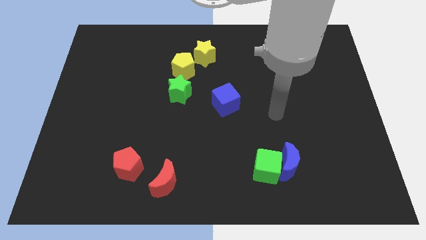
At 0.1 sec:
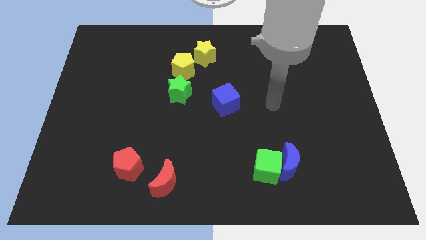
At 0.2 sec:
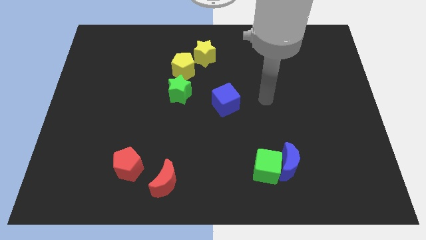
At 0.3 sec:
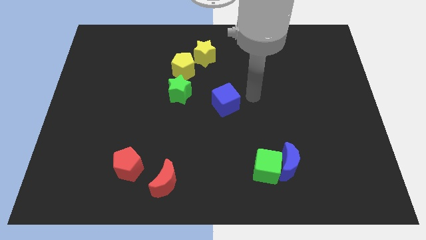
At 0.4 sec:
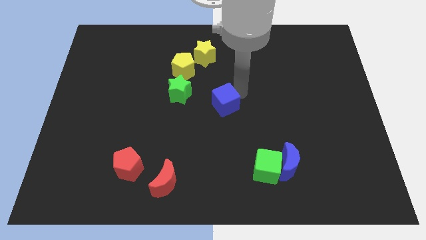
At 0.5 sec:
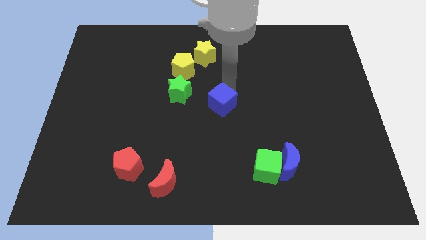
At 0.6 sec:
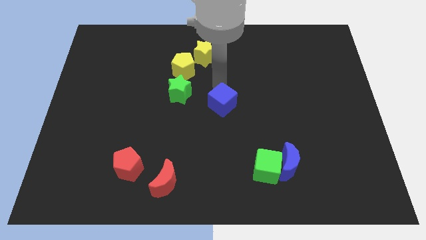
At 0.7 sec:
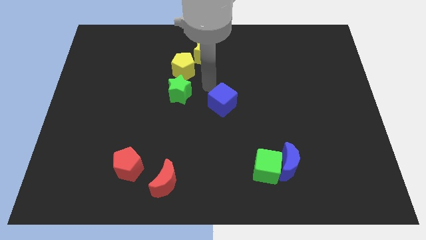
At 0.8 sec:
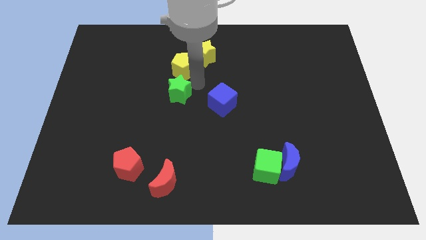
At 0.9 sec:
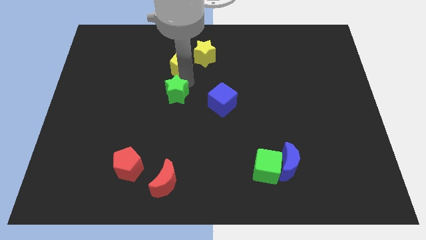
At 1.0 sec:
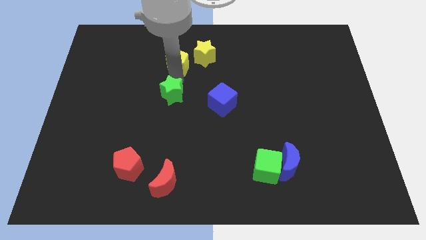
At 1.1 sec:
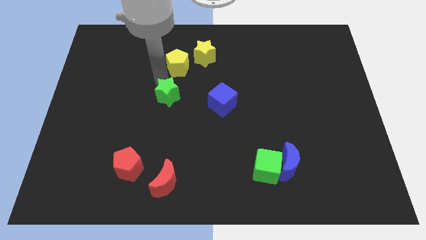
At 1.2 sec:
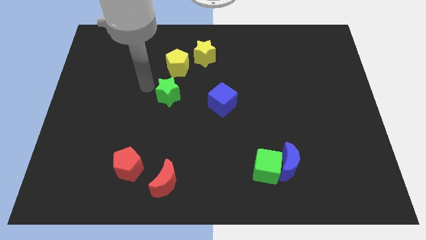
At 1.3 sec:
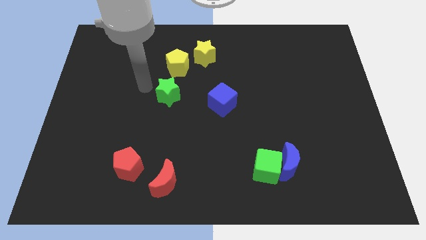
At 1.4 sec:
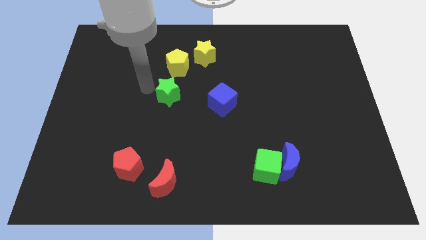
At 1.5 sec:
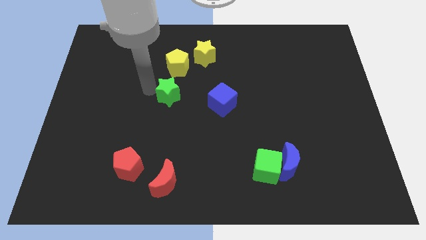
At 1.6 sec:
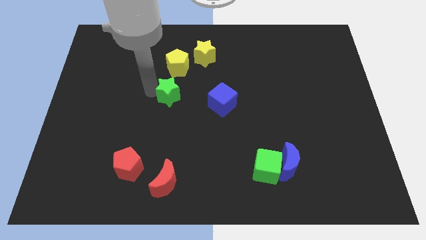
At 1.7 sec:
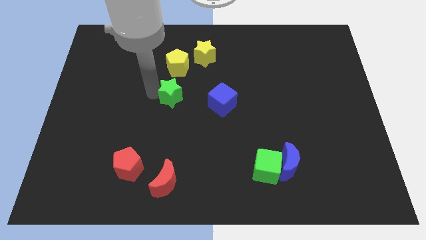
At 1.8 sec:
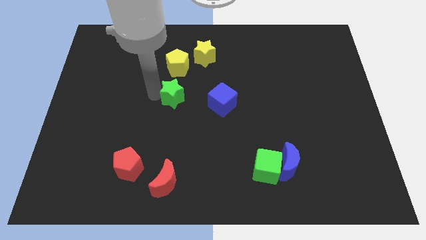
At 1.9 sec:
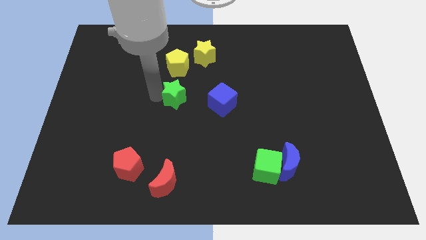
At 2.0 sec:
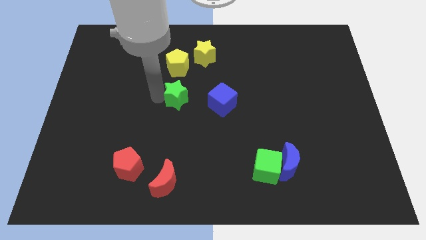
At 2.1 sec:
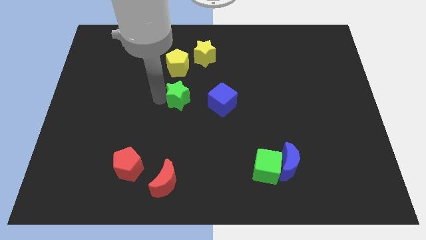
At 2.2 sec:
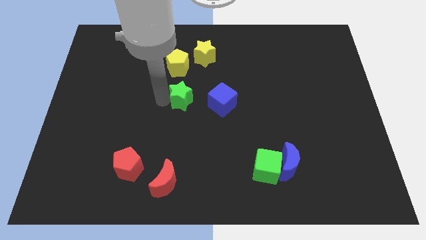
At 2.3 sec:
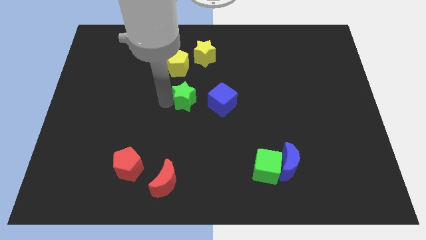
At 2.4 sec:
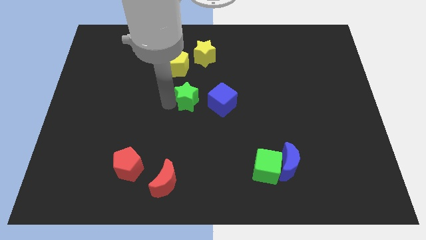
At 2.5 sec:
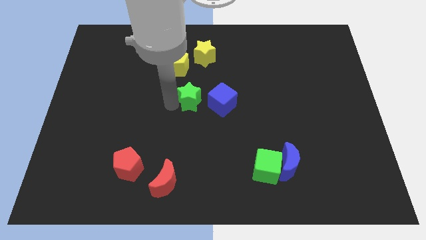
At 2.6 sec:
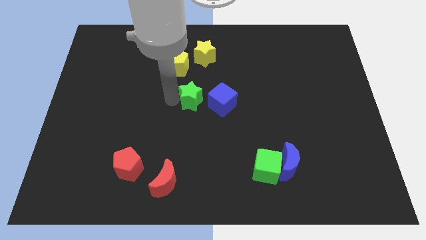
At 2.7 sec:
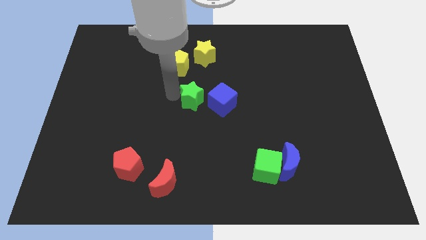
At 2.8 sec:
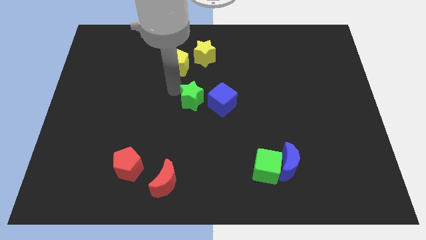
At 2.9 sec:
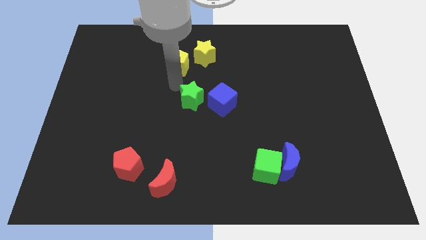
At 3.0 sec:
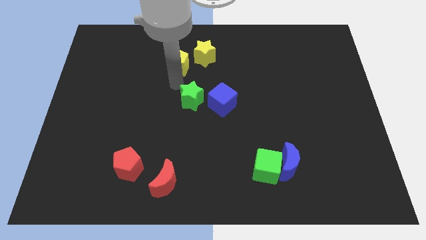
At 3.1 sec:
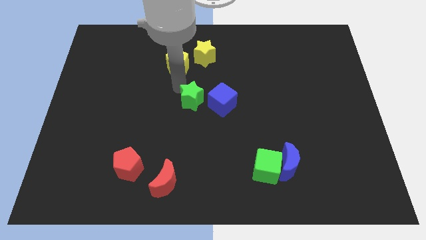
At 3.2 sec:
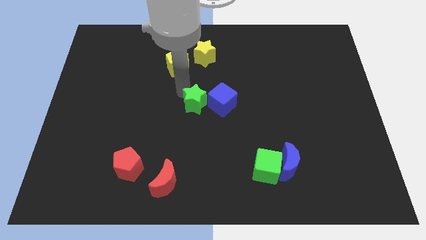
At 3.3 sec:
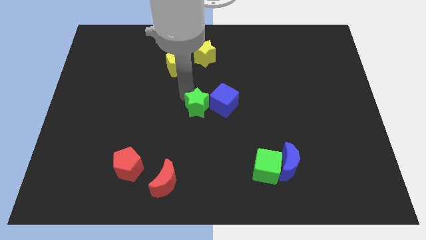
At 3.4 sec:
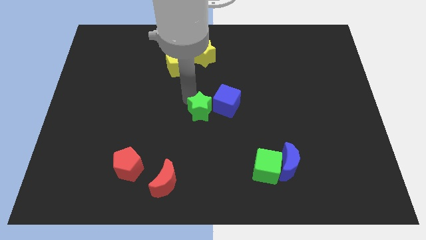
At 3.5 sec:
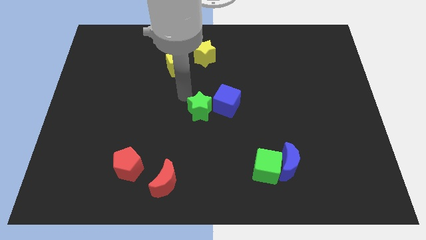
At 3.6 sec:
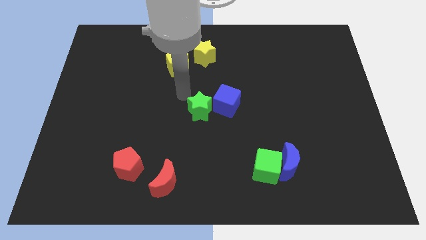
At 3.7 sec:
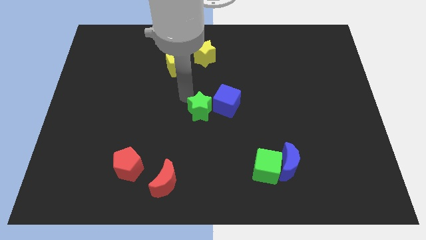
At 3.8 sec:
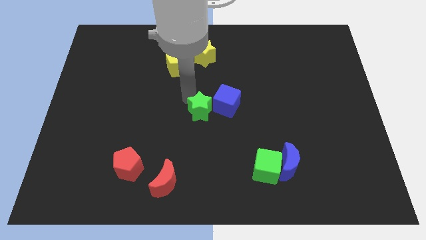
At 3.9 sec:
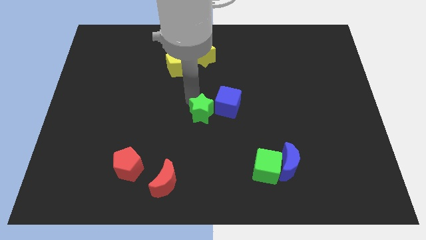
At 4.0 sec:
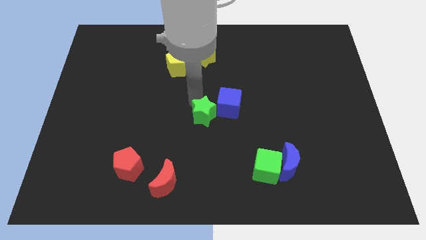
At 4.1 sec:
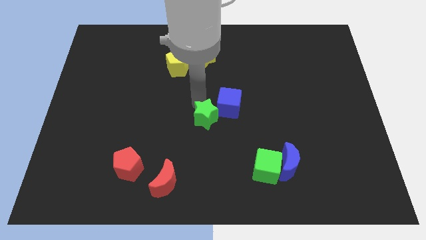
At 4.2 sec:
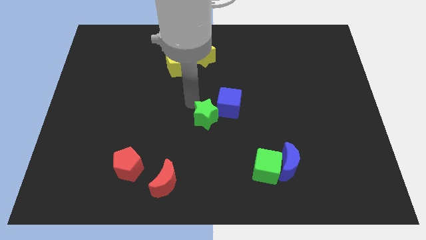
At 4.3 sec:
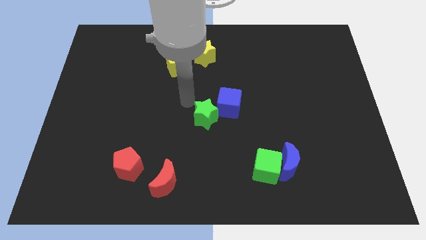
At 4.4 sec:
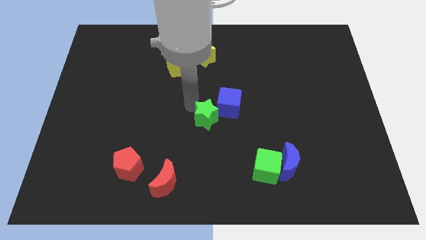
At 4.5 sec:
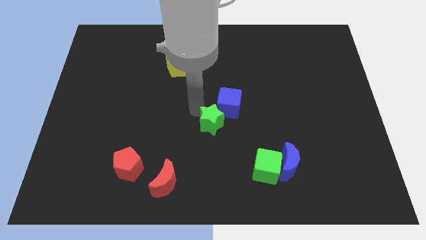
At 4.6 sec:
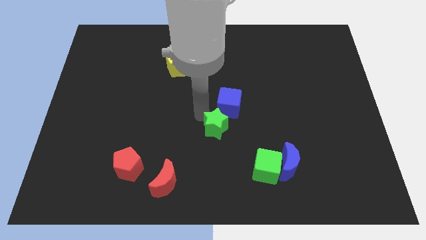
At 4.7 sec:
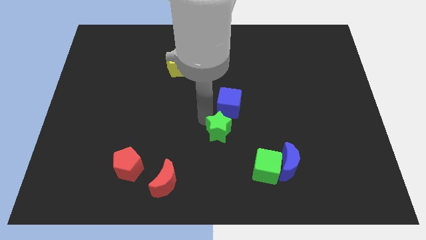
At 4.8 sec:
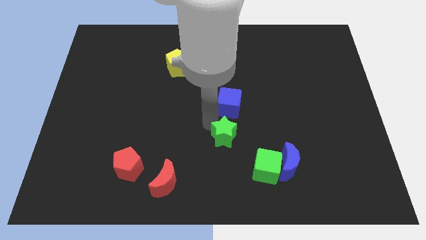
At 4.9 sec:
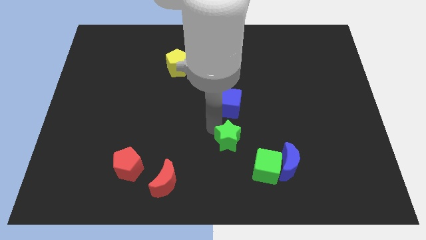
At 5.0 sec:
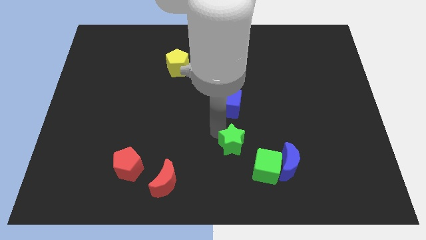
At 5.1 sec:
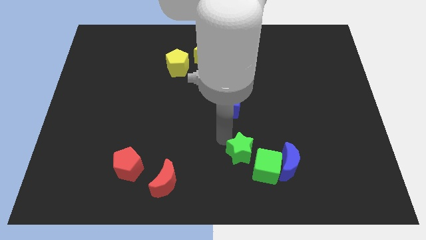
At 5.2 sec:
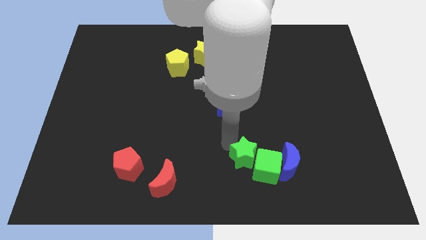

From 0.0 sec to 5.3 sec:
move the green star close to the green cube

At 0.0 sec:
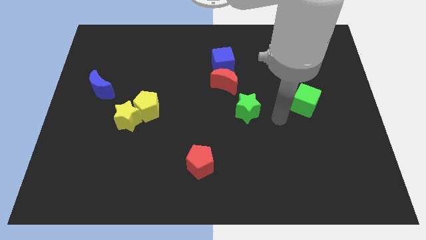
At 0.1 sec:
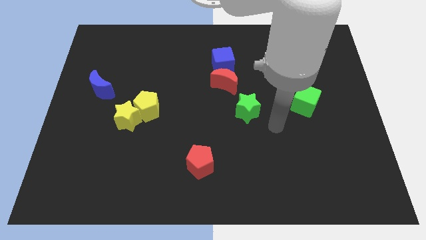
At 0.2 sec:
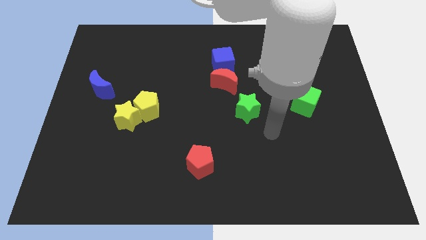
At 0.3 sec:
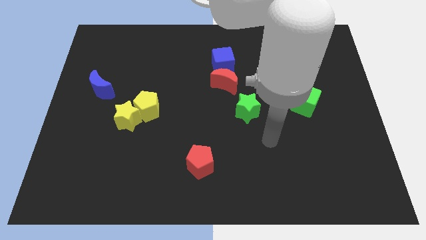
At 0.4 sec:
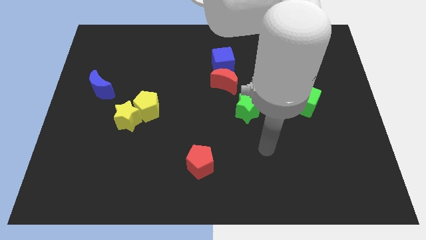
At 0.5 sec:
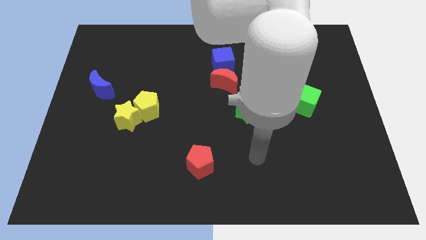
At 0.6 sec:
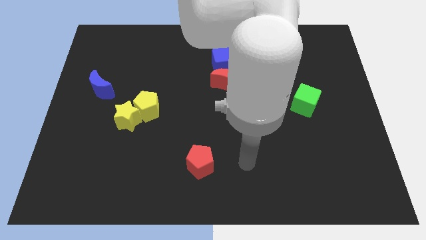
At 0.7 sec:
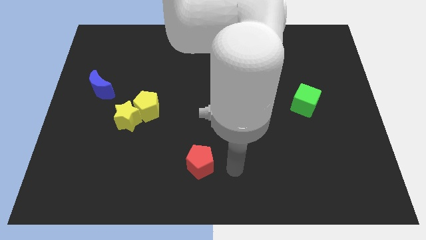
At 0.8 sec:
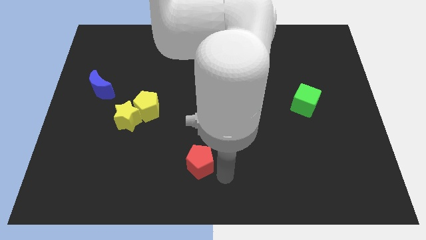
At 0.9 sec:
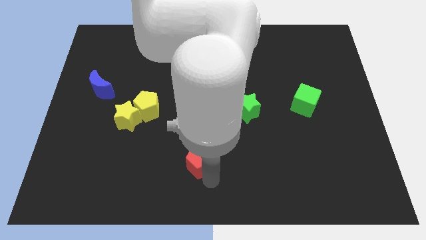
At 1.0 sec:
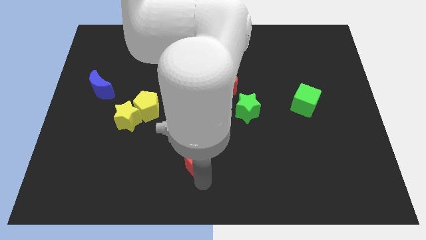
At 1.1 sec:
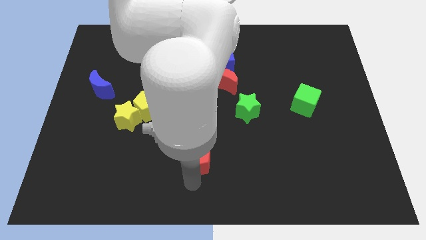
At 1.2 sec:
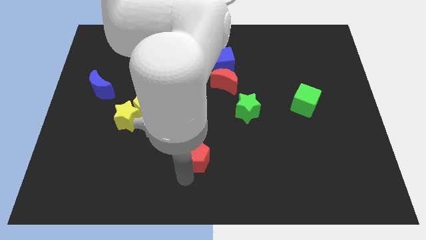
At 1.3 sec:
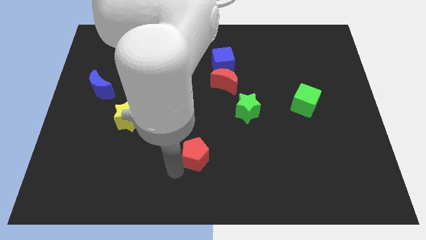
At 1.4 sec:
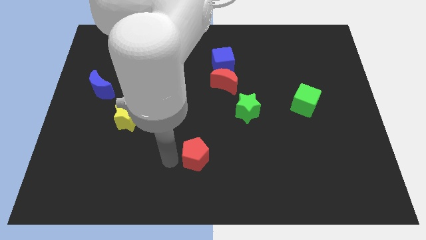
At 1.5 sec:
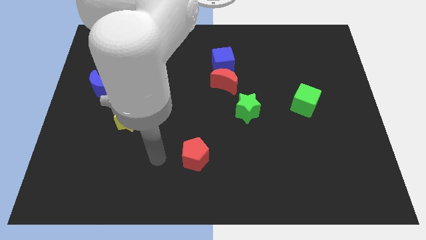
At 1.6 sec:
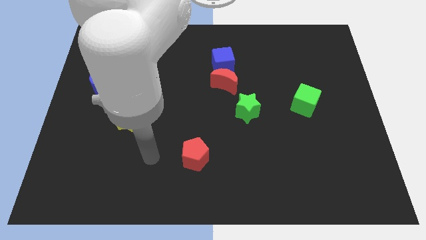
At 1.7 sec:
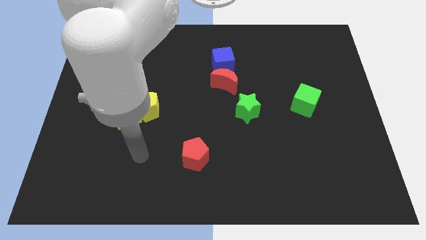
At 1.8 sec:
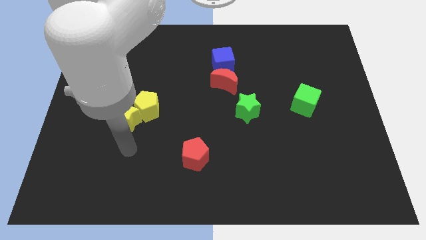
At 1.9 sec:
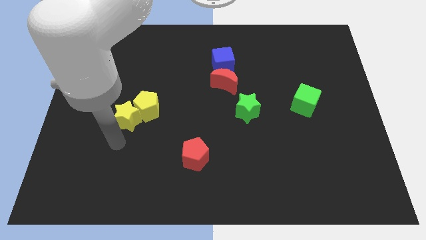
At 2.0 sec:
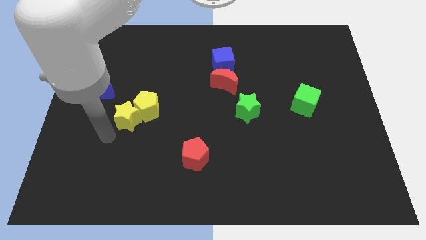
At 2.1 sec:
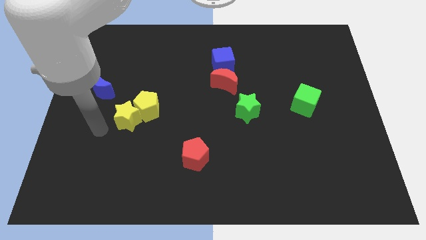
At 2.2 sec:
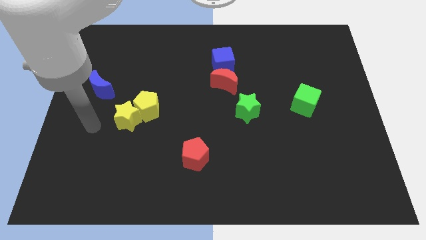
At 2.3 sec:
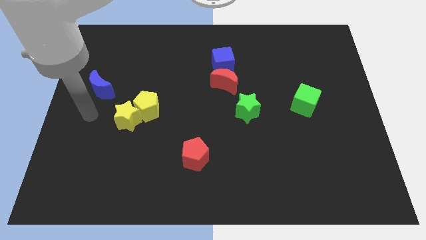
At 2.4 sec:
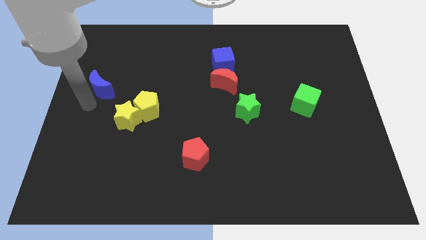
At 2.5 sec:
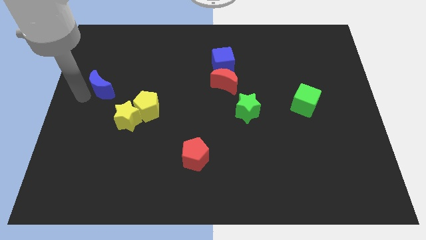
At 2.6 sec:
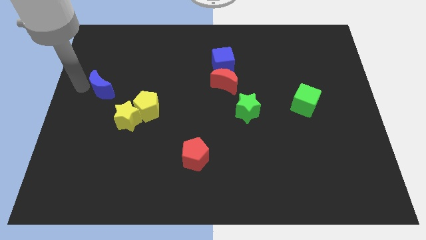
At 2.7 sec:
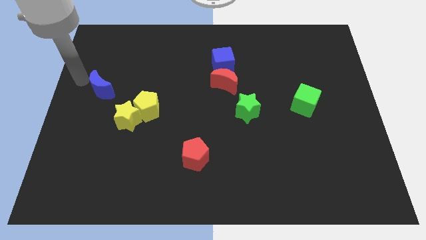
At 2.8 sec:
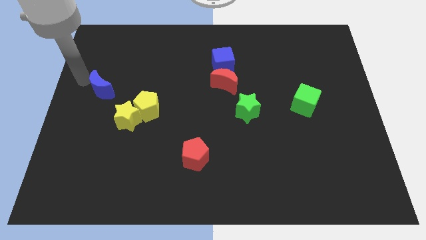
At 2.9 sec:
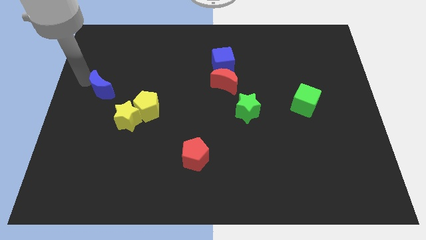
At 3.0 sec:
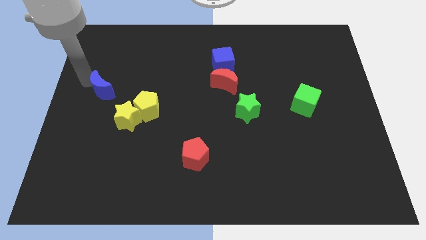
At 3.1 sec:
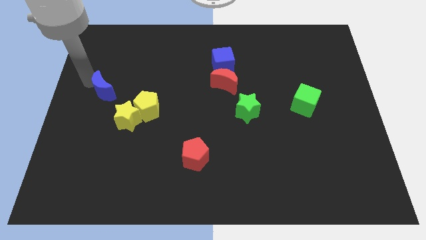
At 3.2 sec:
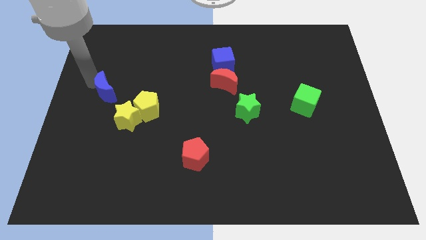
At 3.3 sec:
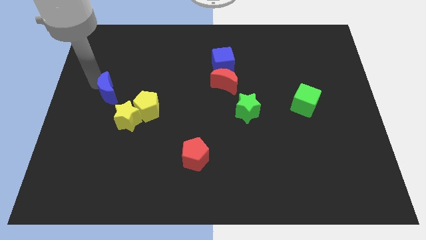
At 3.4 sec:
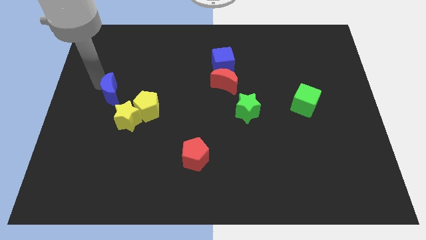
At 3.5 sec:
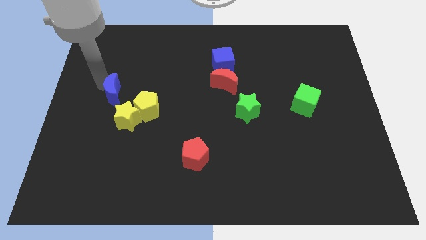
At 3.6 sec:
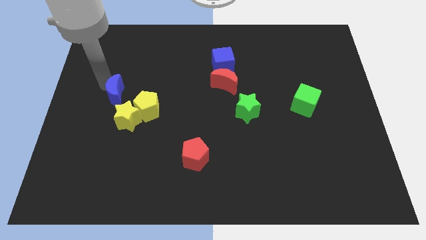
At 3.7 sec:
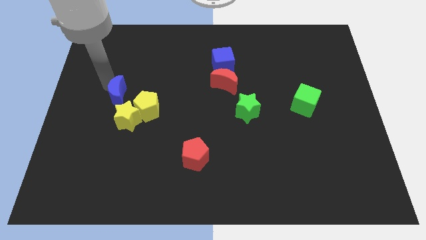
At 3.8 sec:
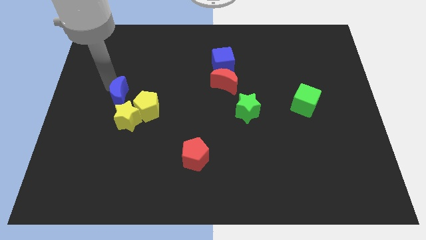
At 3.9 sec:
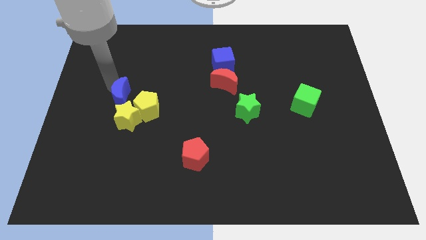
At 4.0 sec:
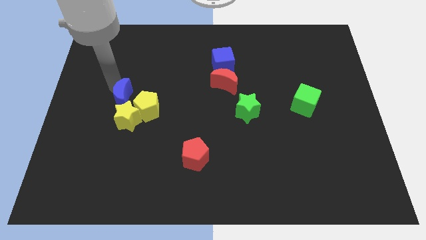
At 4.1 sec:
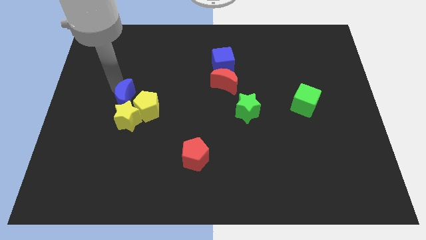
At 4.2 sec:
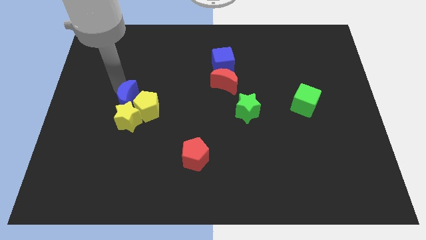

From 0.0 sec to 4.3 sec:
push the blue moon next to the yellow pentagon
